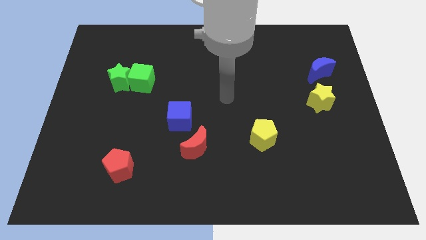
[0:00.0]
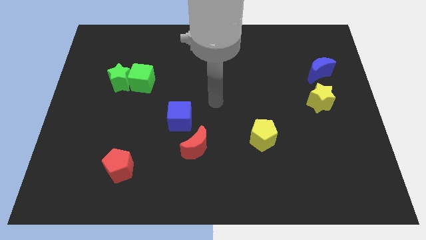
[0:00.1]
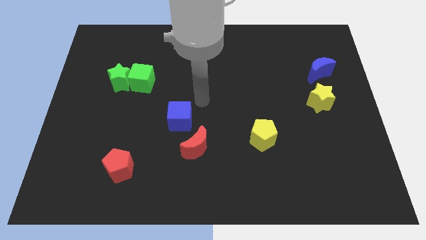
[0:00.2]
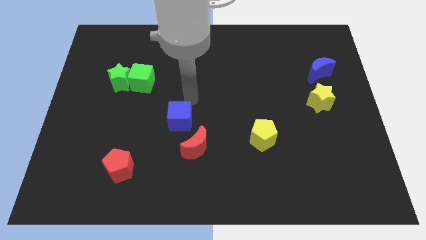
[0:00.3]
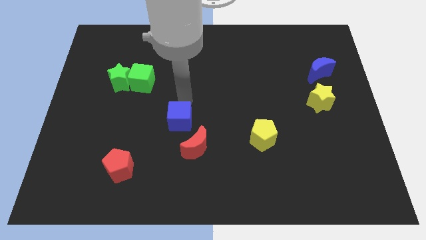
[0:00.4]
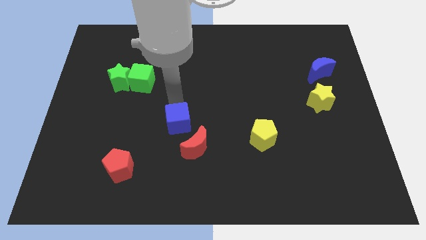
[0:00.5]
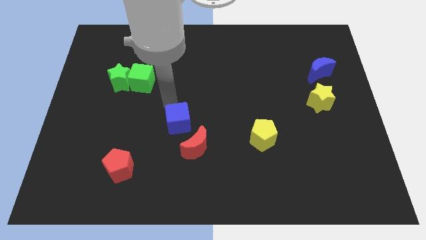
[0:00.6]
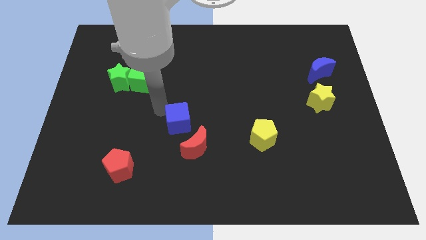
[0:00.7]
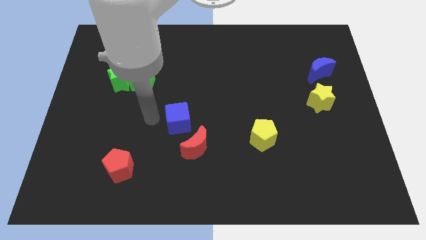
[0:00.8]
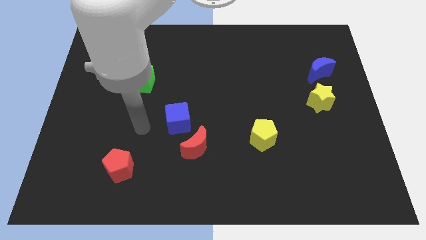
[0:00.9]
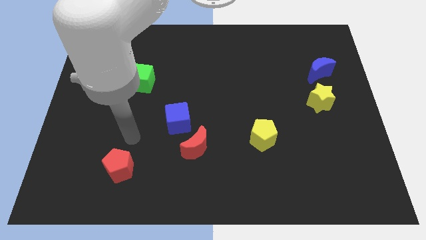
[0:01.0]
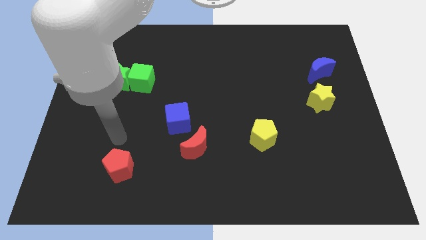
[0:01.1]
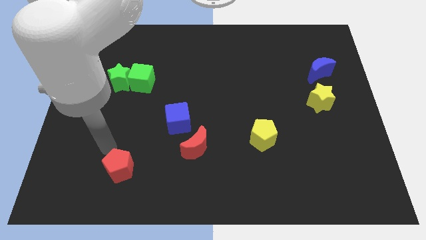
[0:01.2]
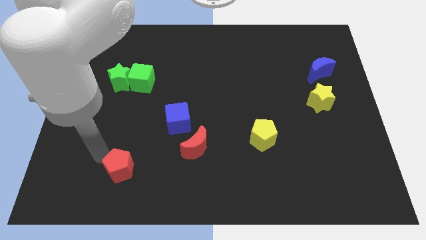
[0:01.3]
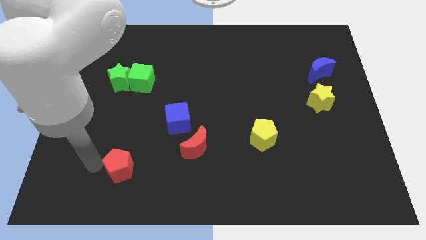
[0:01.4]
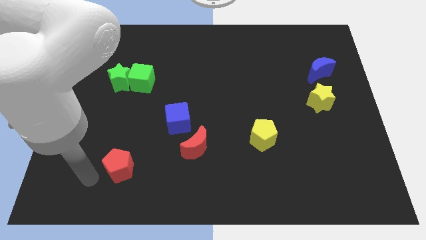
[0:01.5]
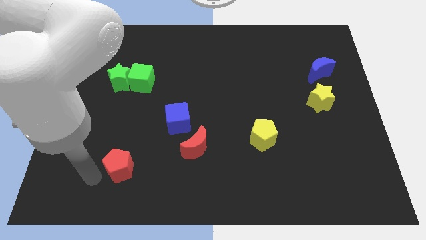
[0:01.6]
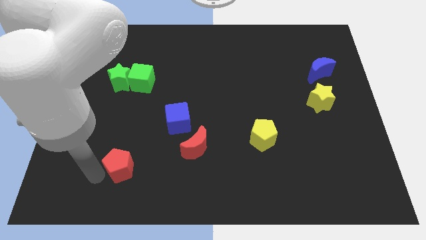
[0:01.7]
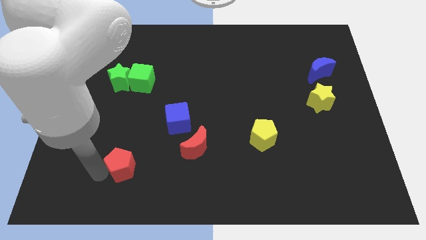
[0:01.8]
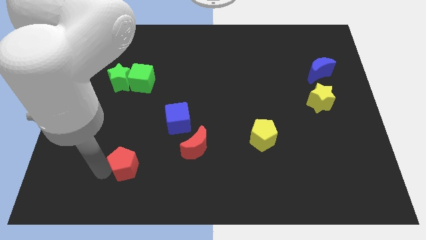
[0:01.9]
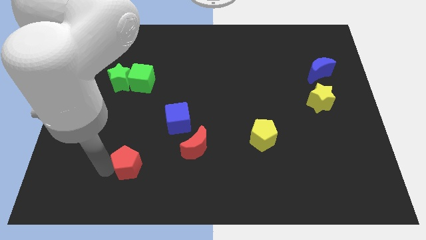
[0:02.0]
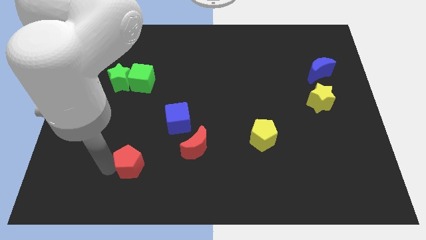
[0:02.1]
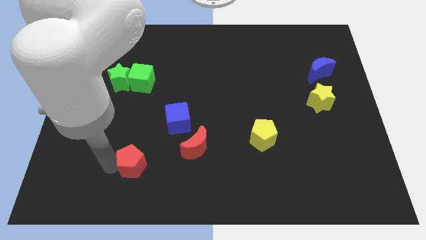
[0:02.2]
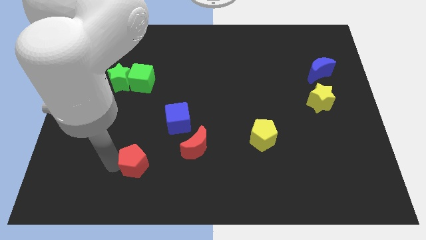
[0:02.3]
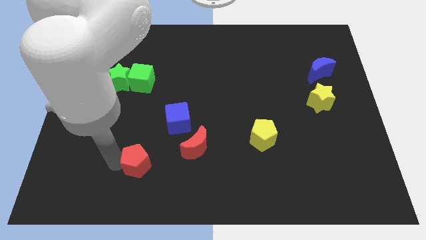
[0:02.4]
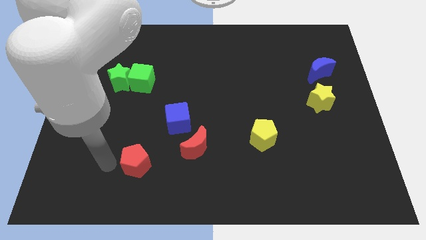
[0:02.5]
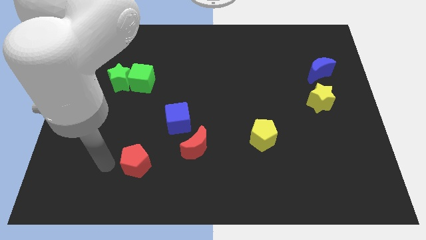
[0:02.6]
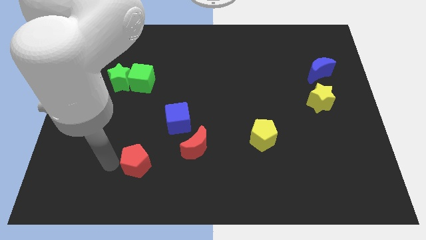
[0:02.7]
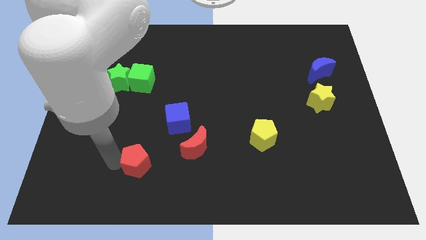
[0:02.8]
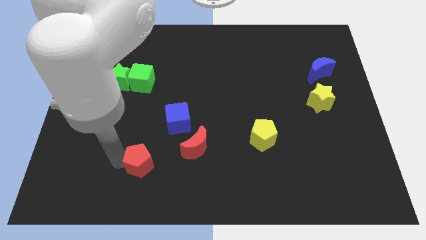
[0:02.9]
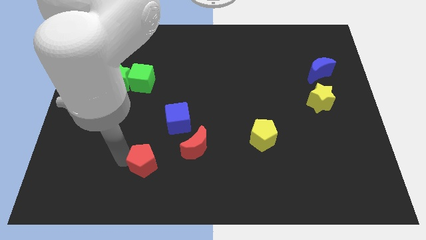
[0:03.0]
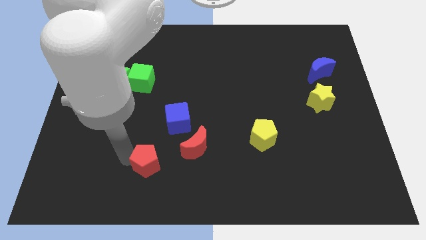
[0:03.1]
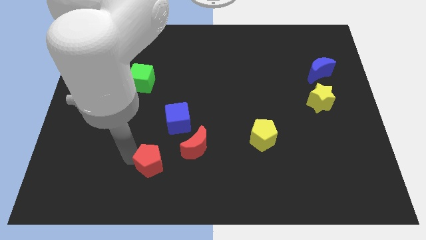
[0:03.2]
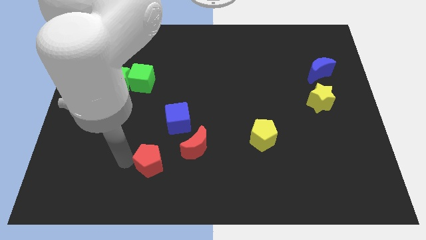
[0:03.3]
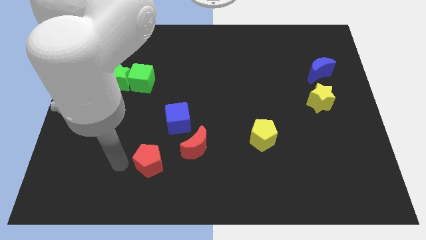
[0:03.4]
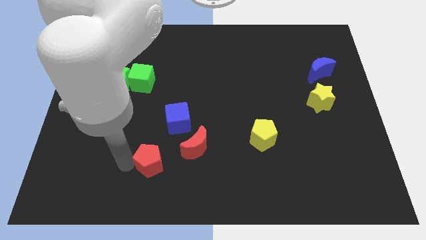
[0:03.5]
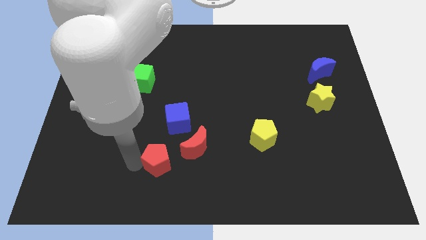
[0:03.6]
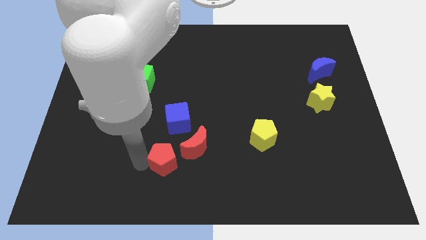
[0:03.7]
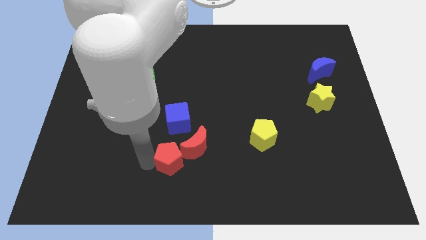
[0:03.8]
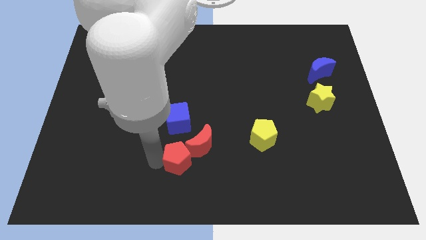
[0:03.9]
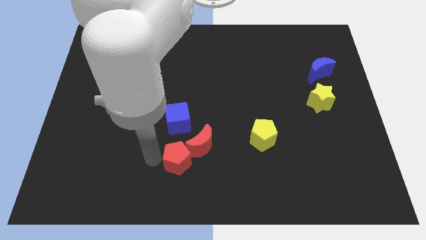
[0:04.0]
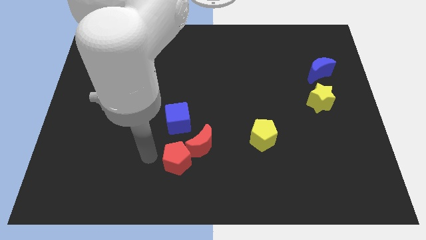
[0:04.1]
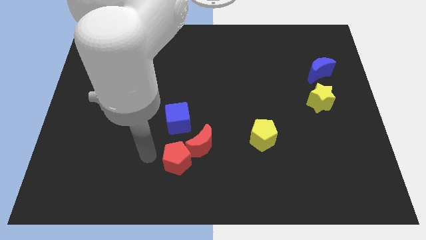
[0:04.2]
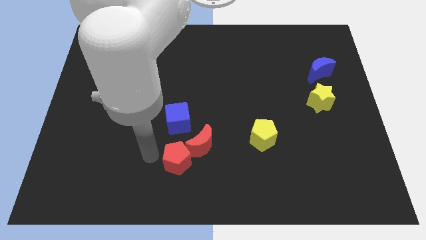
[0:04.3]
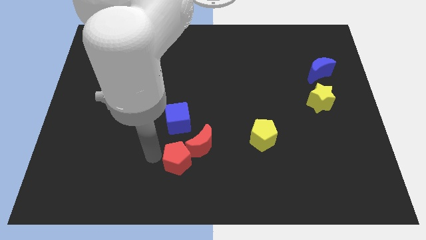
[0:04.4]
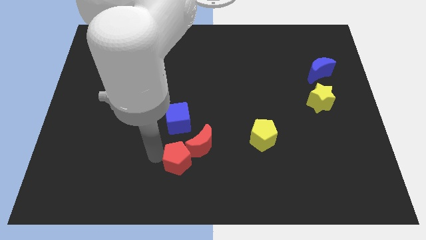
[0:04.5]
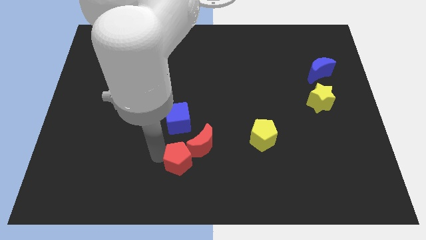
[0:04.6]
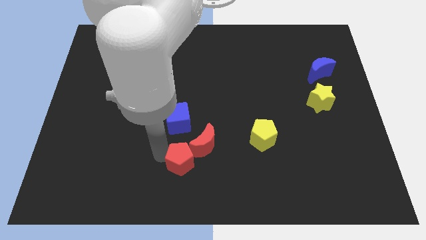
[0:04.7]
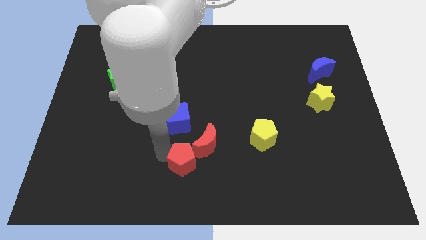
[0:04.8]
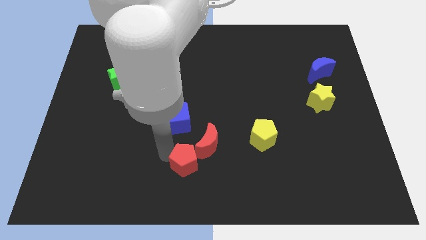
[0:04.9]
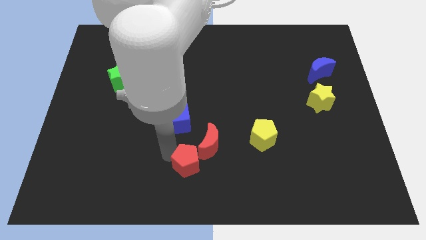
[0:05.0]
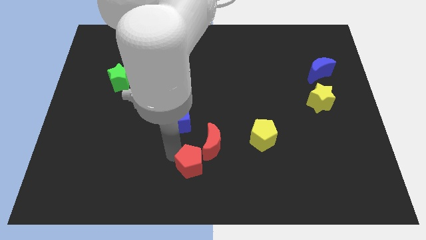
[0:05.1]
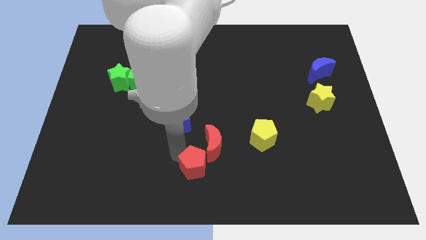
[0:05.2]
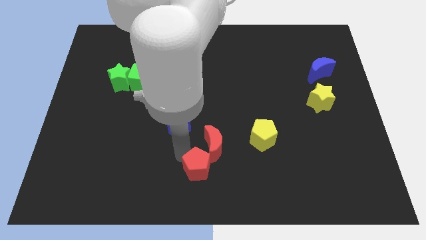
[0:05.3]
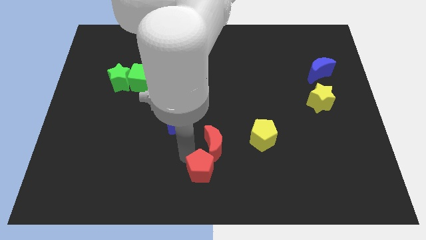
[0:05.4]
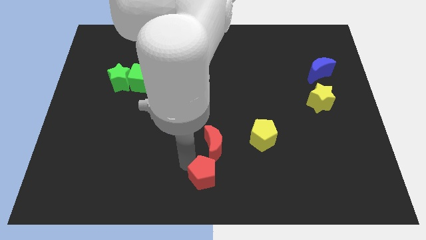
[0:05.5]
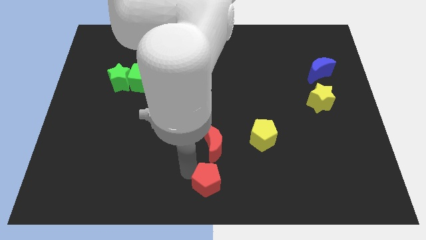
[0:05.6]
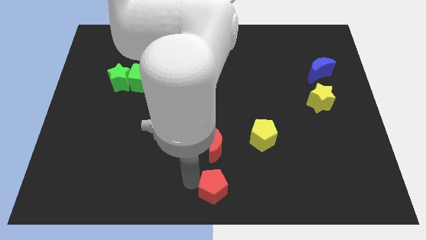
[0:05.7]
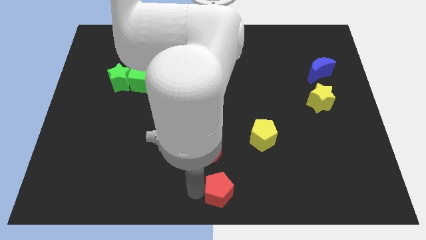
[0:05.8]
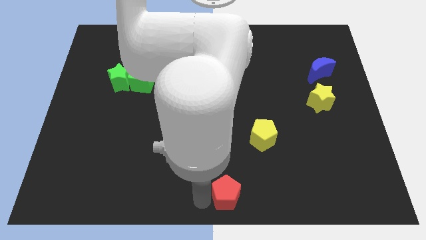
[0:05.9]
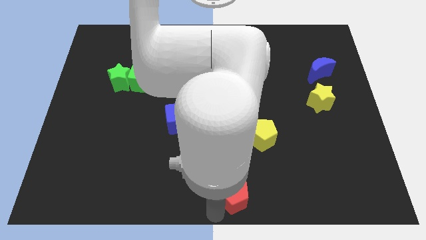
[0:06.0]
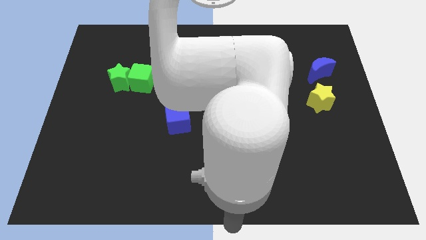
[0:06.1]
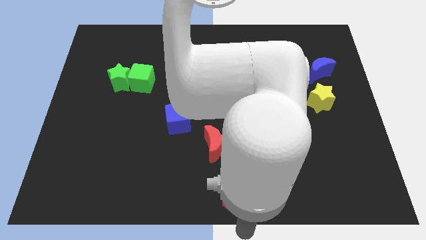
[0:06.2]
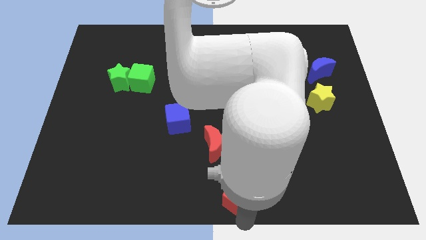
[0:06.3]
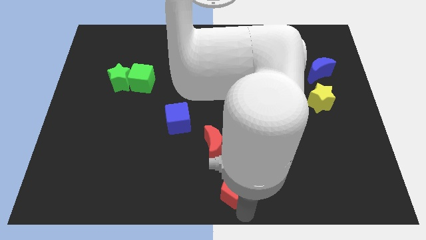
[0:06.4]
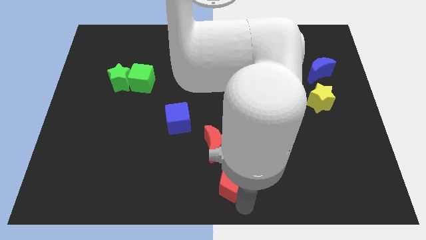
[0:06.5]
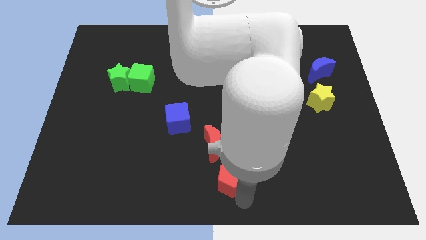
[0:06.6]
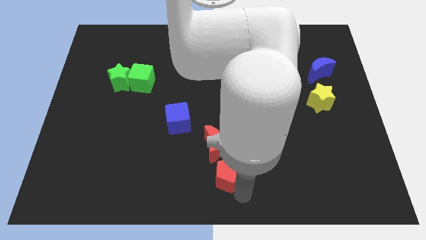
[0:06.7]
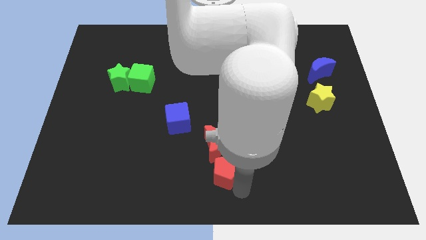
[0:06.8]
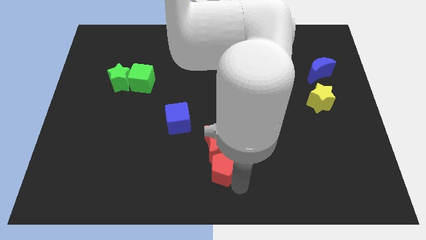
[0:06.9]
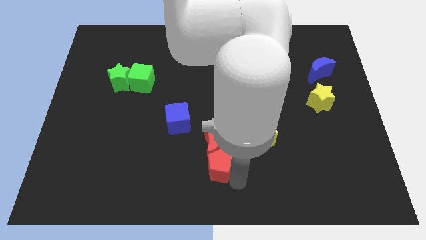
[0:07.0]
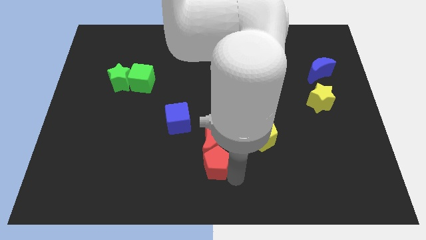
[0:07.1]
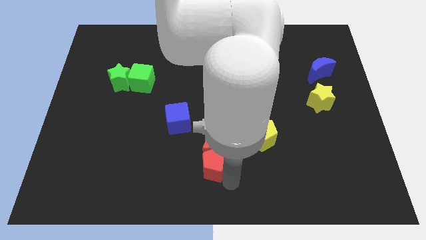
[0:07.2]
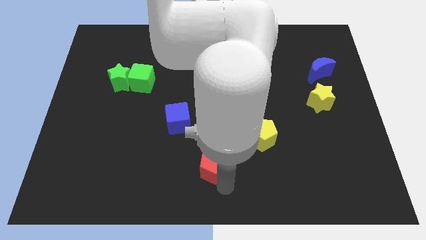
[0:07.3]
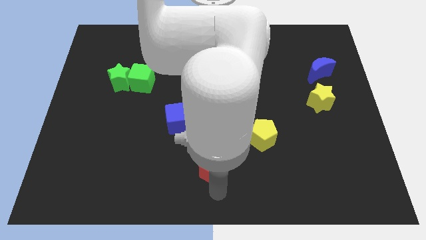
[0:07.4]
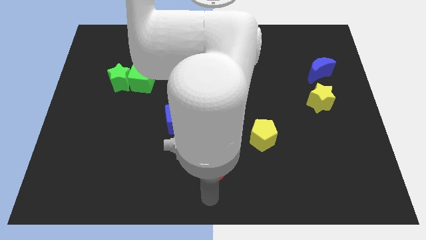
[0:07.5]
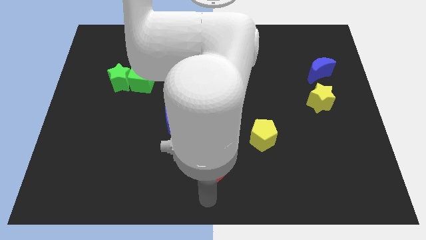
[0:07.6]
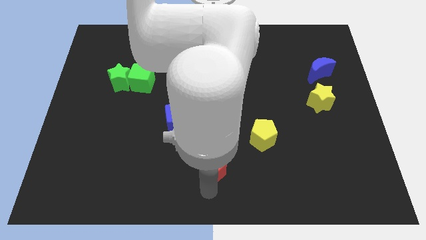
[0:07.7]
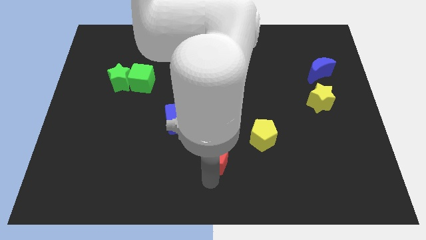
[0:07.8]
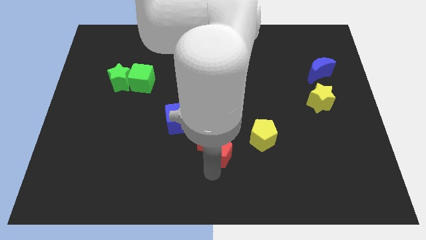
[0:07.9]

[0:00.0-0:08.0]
push the red pentagon just left of the yellow pentagon
